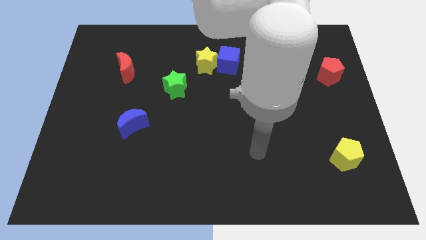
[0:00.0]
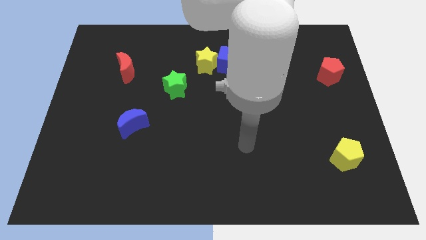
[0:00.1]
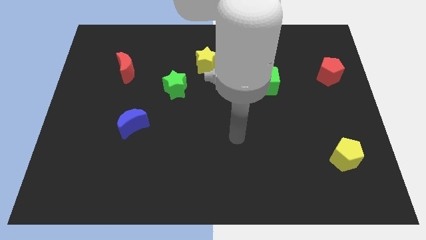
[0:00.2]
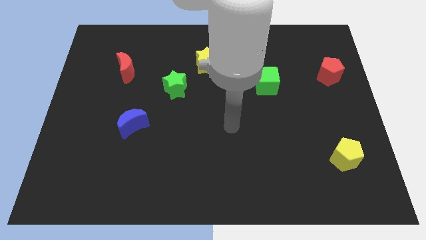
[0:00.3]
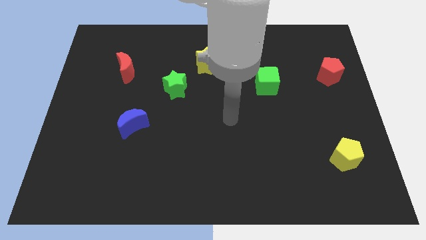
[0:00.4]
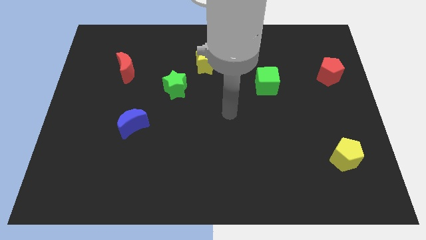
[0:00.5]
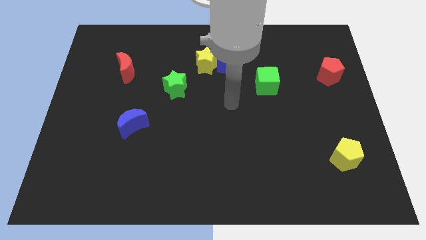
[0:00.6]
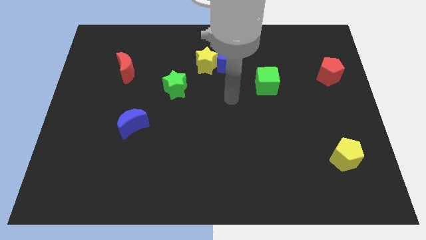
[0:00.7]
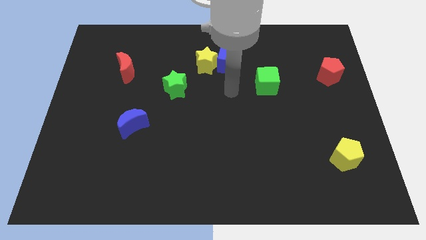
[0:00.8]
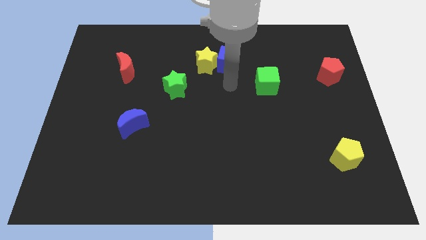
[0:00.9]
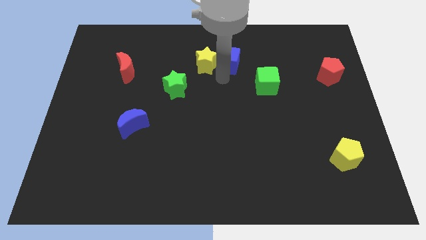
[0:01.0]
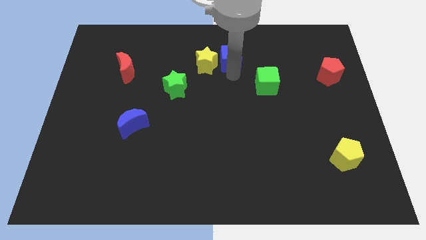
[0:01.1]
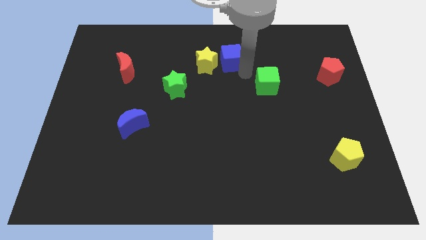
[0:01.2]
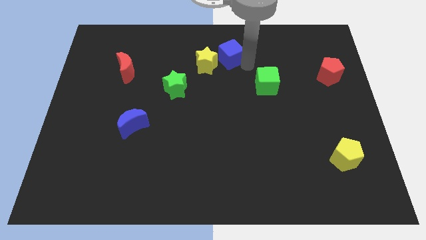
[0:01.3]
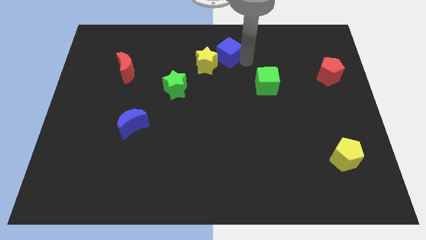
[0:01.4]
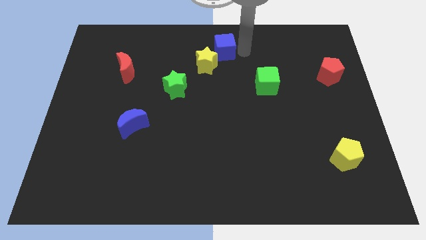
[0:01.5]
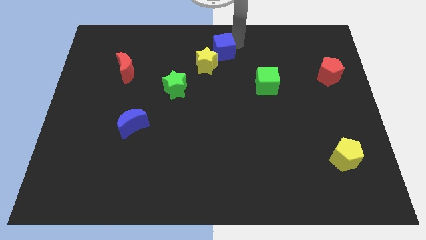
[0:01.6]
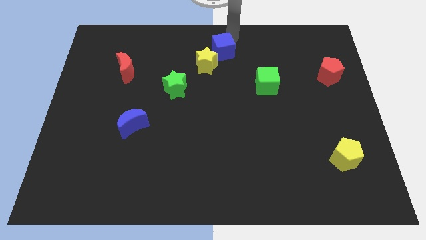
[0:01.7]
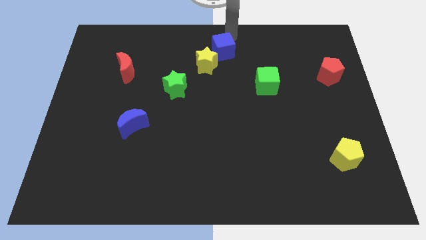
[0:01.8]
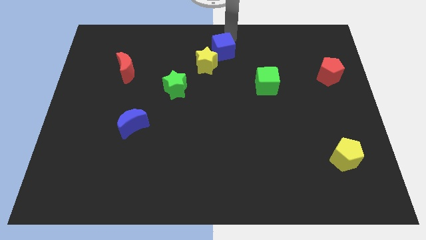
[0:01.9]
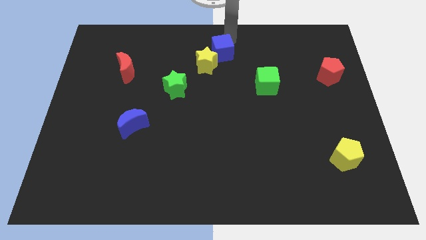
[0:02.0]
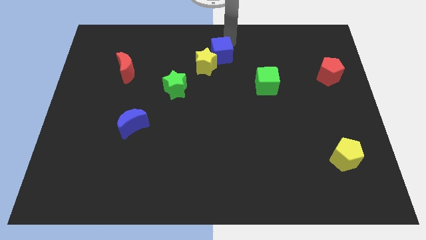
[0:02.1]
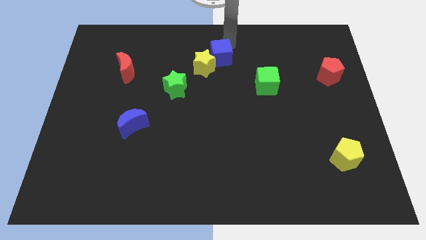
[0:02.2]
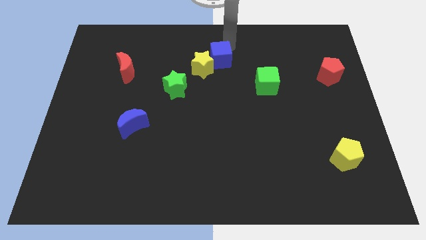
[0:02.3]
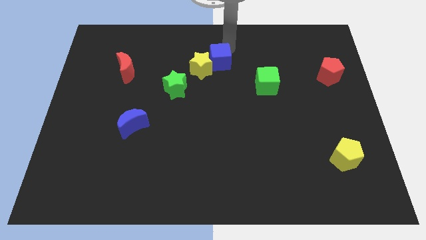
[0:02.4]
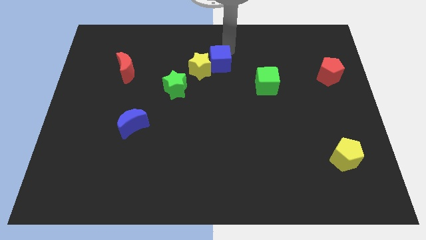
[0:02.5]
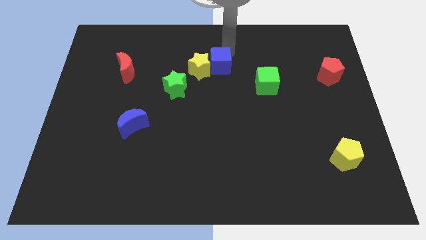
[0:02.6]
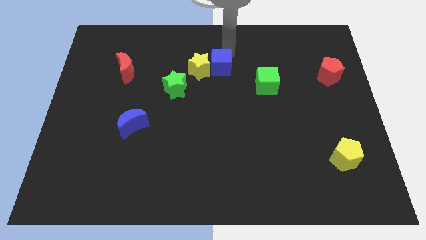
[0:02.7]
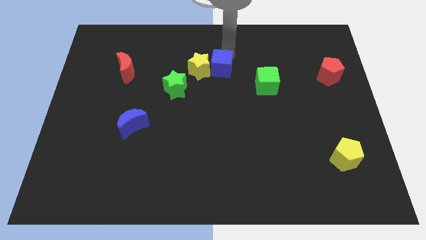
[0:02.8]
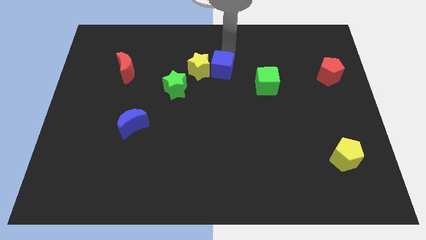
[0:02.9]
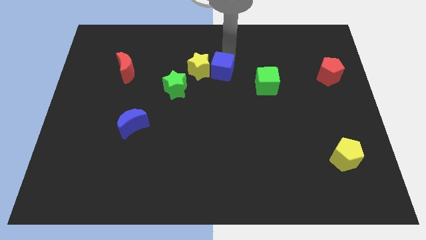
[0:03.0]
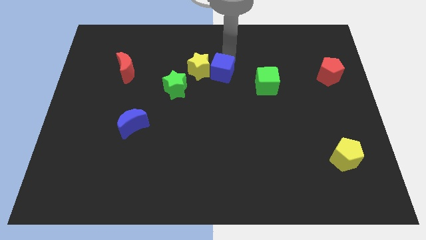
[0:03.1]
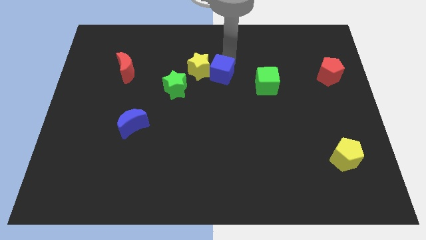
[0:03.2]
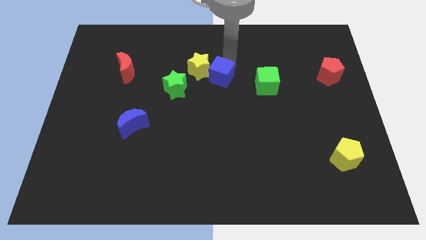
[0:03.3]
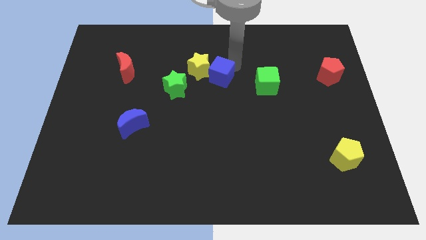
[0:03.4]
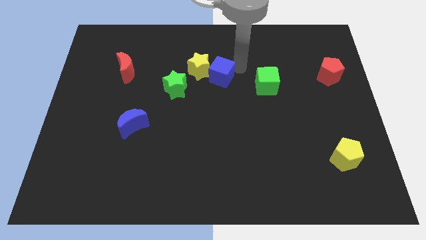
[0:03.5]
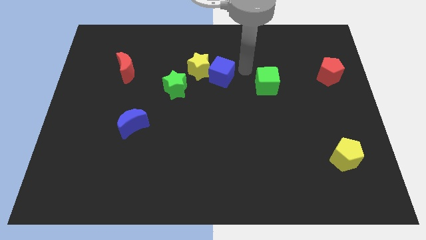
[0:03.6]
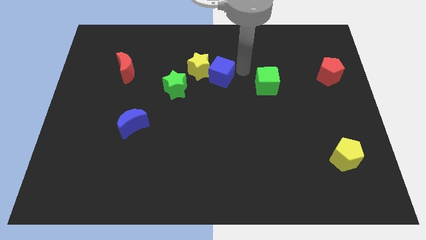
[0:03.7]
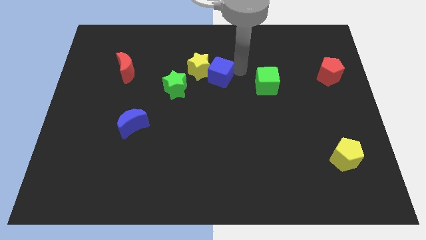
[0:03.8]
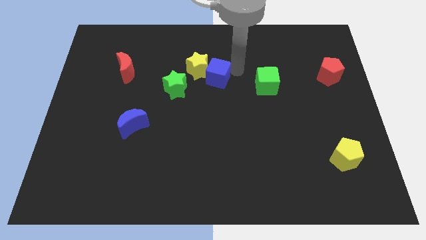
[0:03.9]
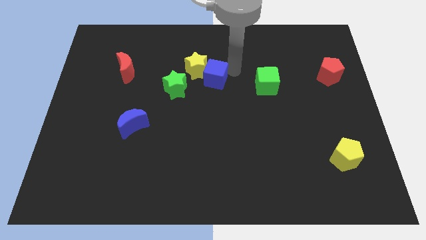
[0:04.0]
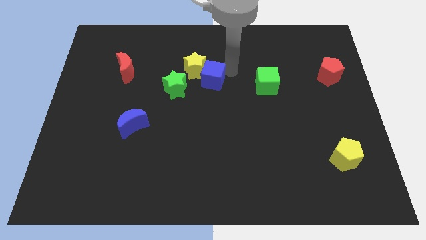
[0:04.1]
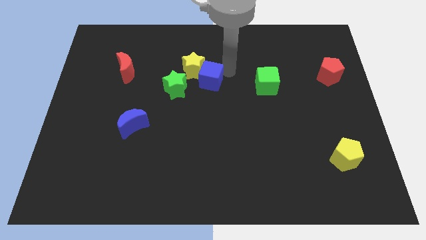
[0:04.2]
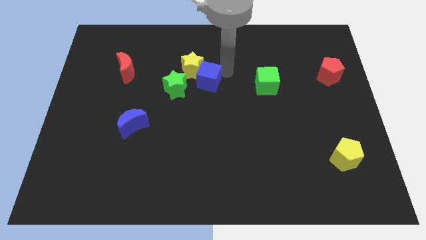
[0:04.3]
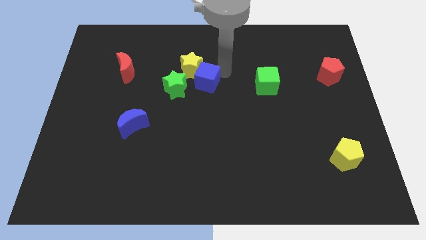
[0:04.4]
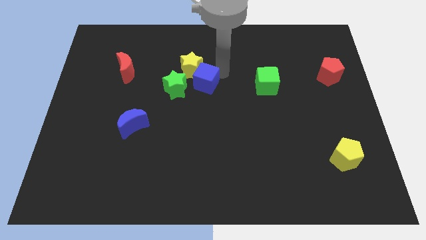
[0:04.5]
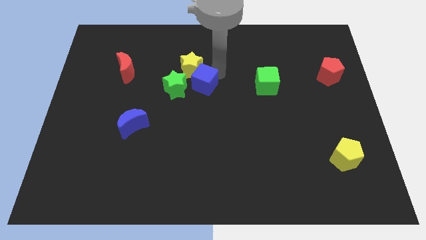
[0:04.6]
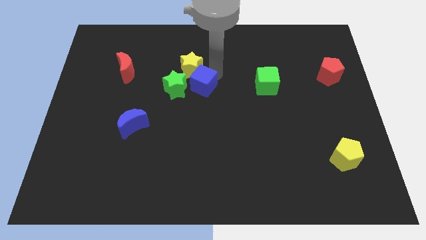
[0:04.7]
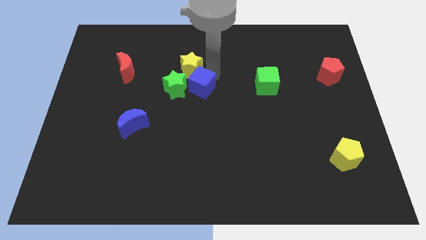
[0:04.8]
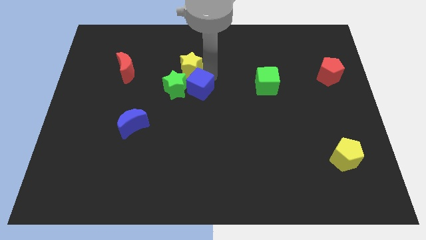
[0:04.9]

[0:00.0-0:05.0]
move the blue cube close to the green star

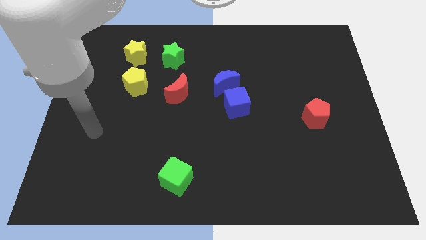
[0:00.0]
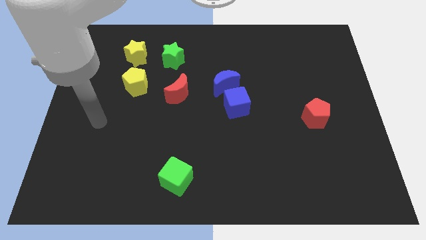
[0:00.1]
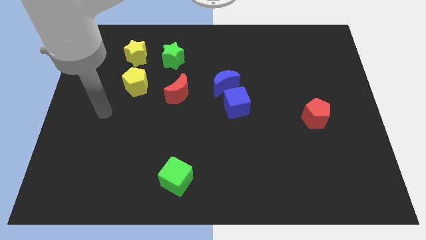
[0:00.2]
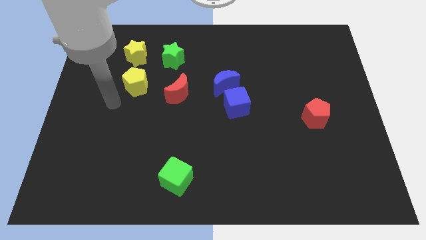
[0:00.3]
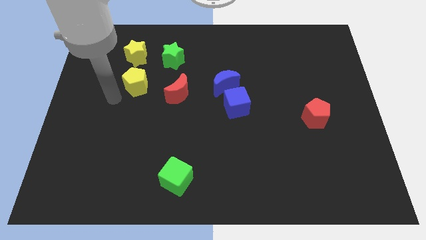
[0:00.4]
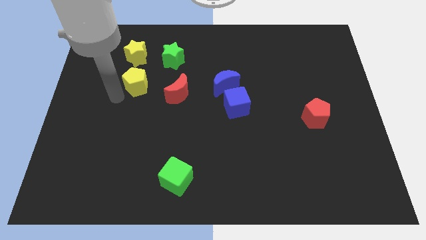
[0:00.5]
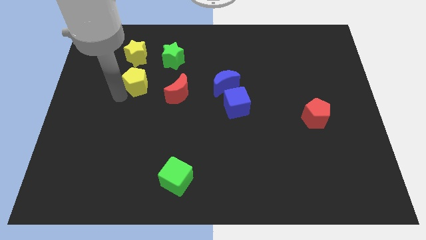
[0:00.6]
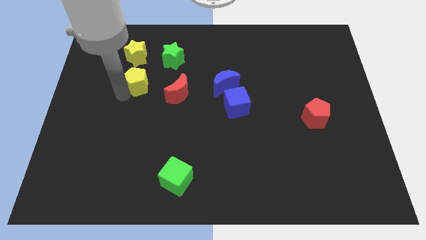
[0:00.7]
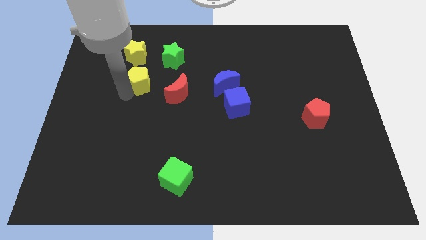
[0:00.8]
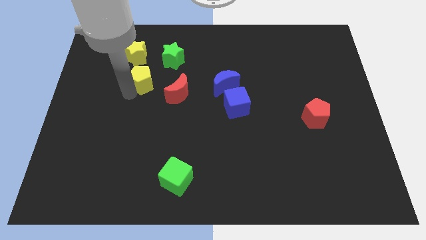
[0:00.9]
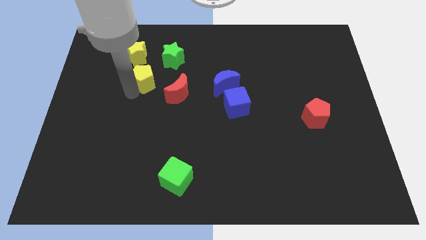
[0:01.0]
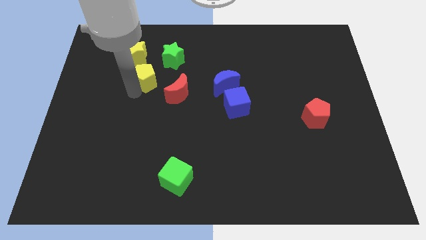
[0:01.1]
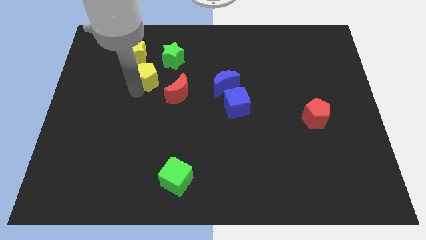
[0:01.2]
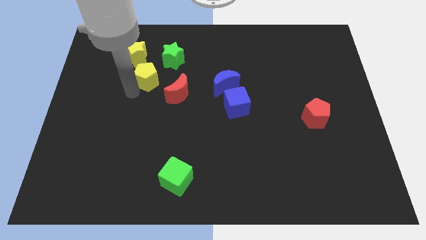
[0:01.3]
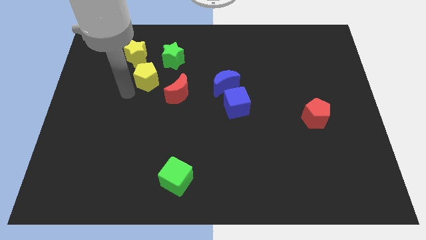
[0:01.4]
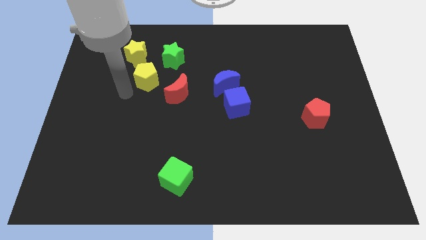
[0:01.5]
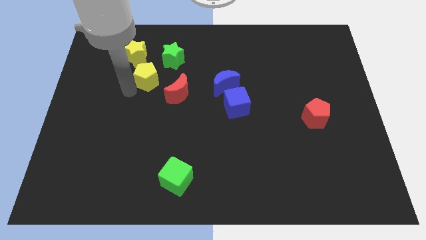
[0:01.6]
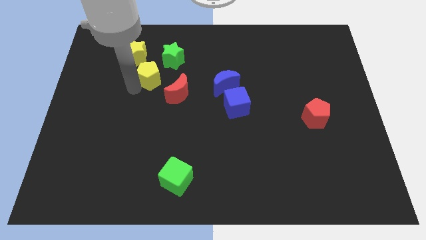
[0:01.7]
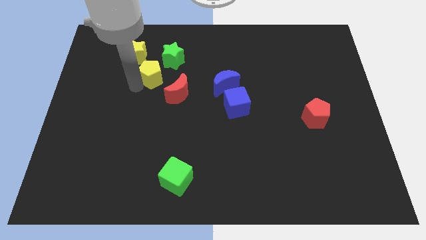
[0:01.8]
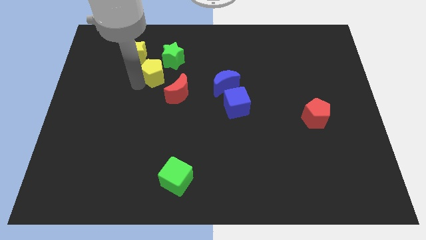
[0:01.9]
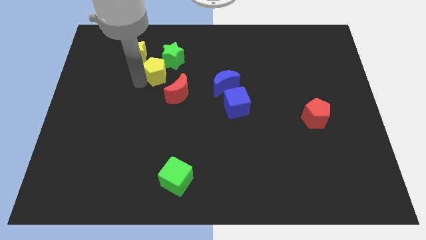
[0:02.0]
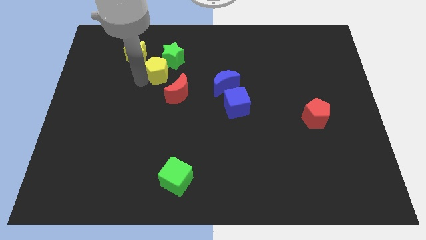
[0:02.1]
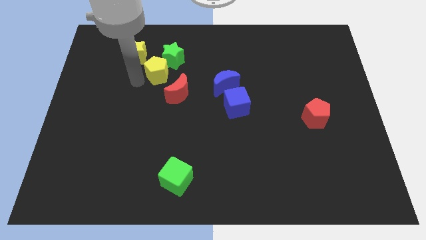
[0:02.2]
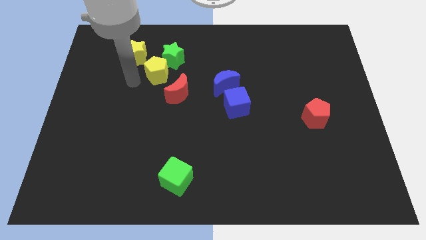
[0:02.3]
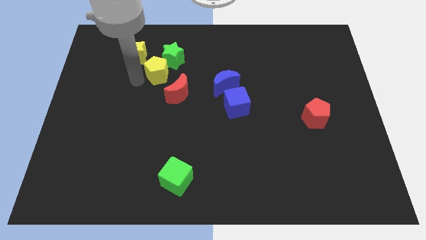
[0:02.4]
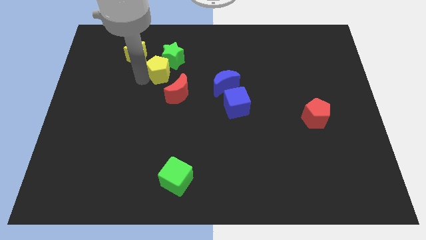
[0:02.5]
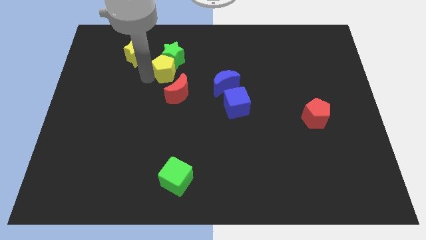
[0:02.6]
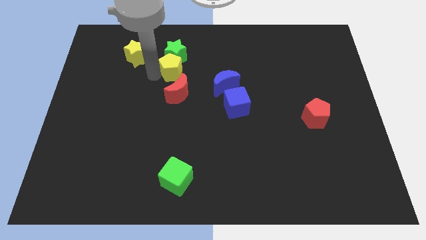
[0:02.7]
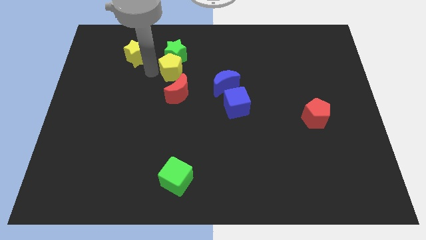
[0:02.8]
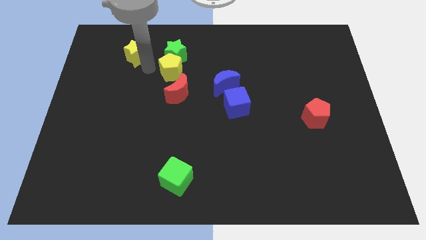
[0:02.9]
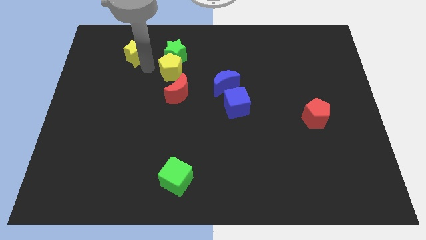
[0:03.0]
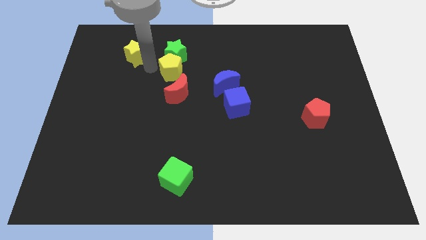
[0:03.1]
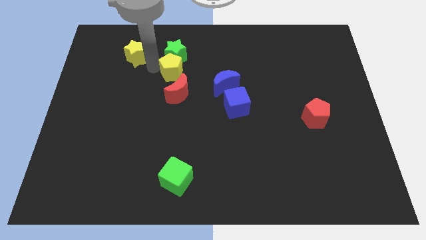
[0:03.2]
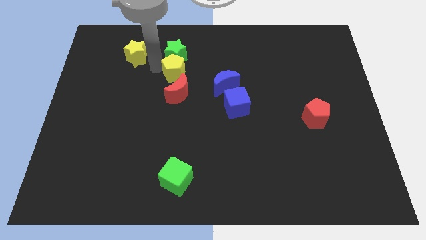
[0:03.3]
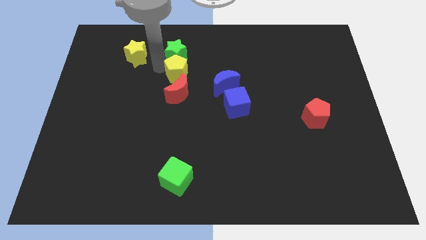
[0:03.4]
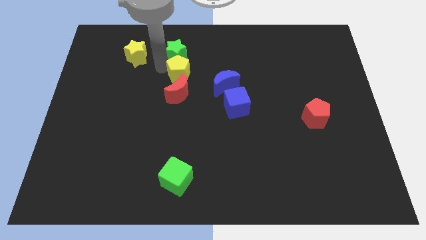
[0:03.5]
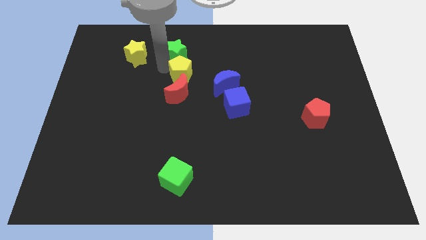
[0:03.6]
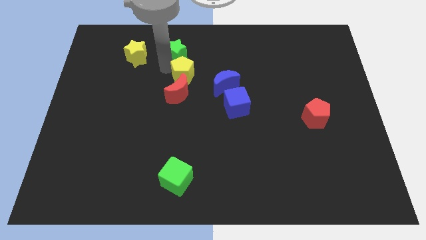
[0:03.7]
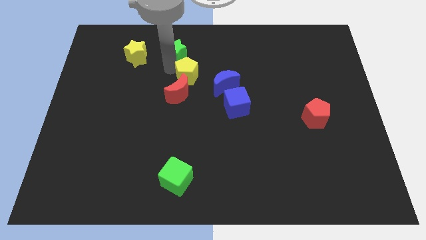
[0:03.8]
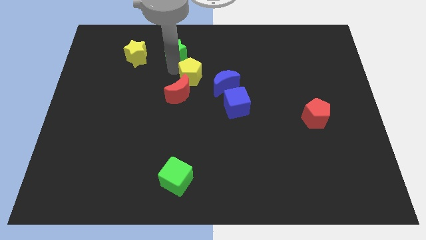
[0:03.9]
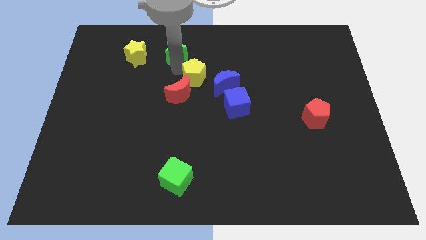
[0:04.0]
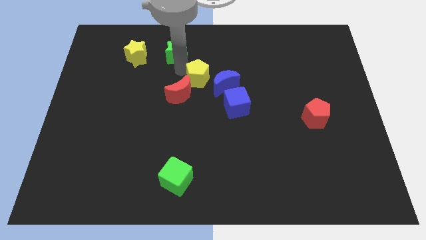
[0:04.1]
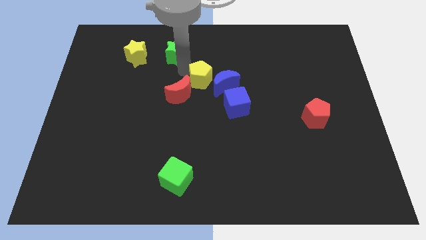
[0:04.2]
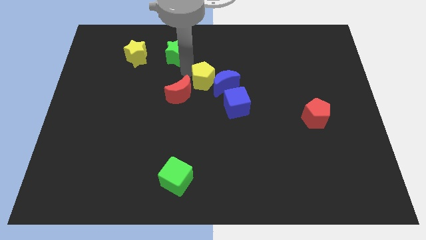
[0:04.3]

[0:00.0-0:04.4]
push the yellow pentagon close to the blue moon
